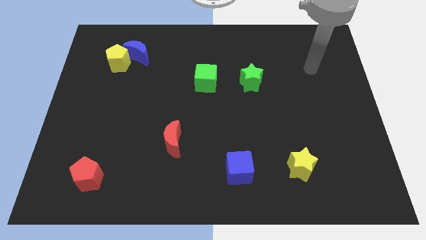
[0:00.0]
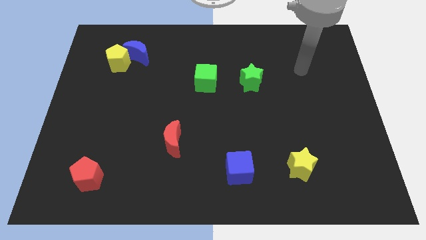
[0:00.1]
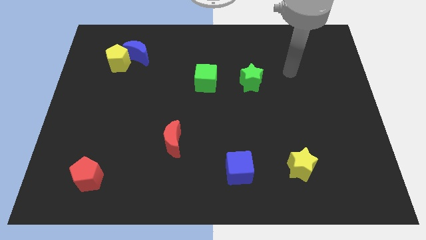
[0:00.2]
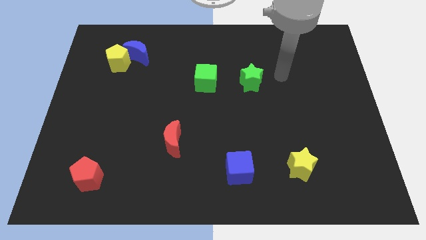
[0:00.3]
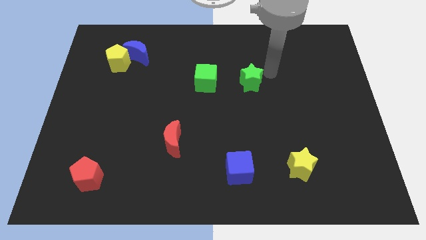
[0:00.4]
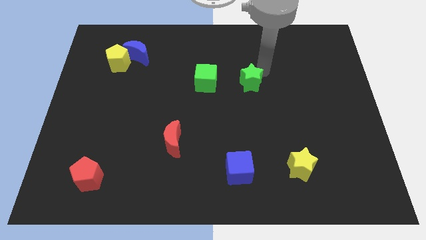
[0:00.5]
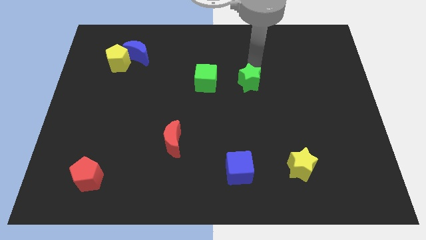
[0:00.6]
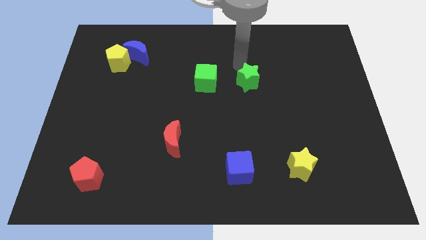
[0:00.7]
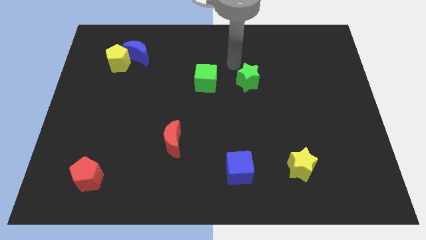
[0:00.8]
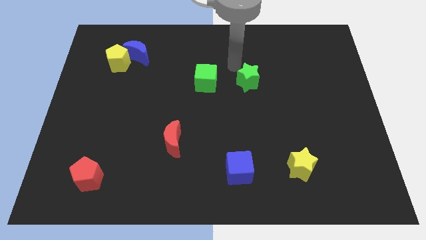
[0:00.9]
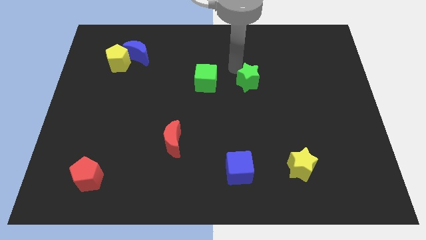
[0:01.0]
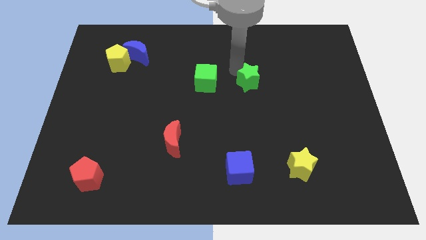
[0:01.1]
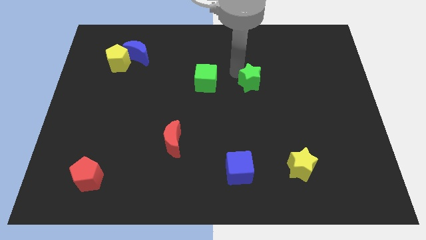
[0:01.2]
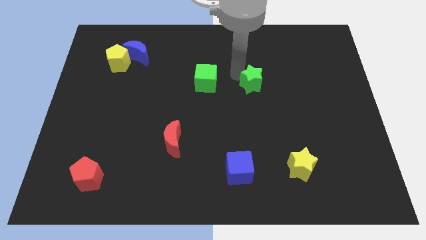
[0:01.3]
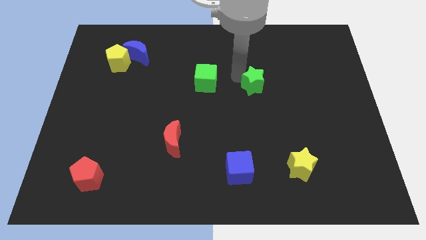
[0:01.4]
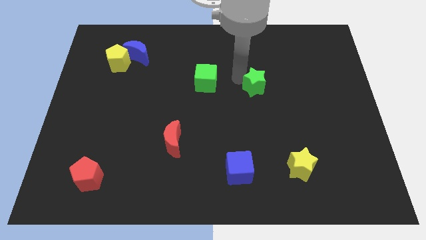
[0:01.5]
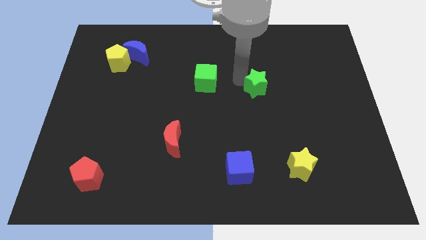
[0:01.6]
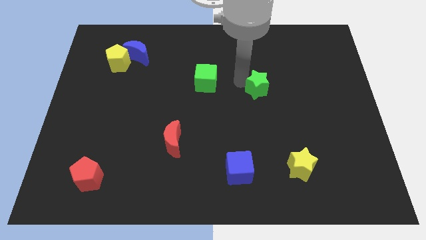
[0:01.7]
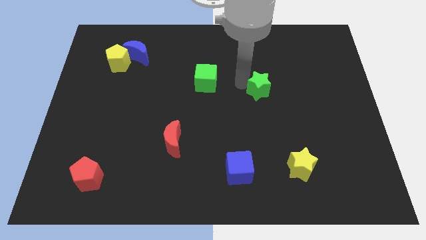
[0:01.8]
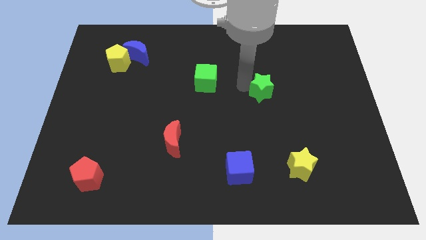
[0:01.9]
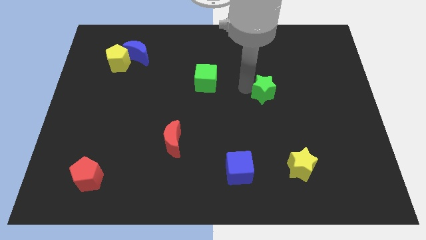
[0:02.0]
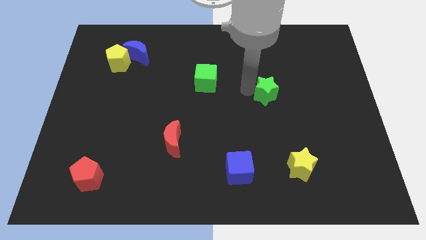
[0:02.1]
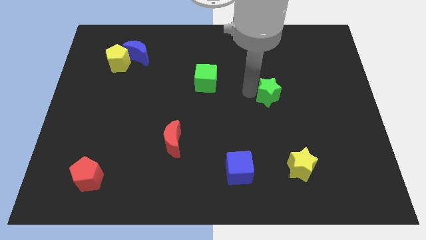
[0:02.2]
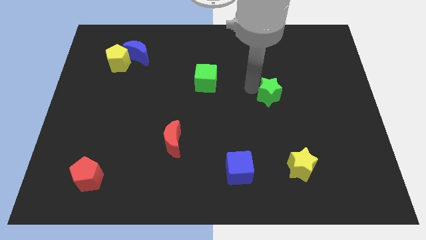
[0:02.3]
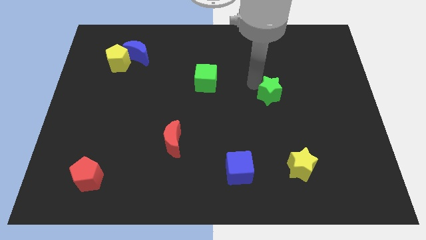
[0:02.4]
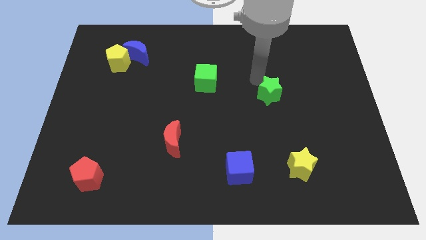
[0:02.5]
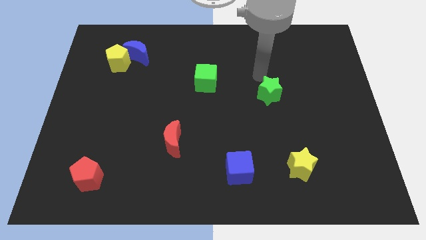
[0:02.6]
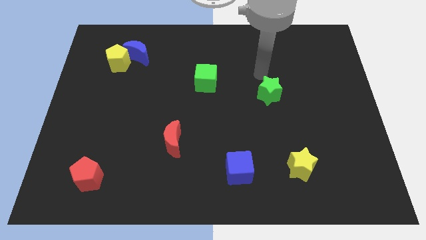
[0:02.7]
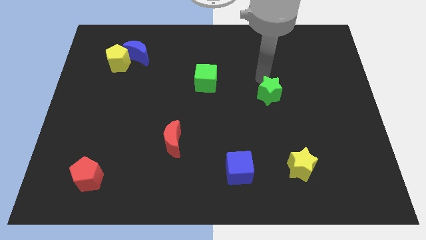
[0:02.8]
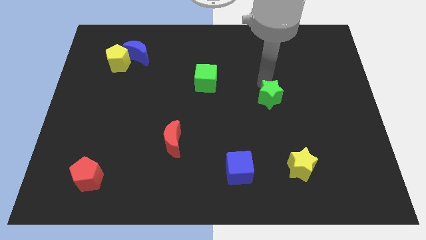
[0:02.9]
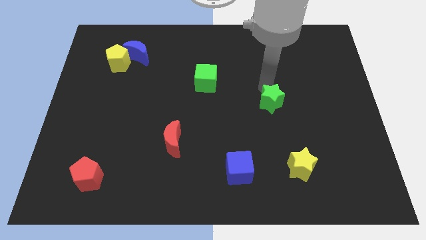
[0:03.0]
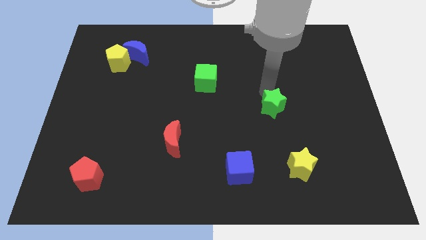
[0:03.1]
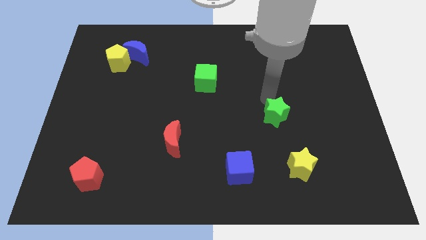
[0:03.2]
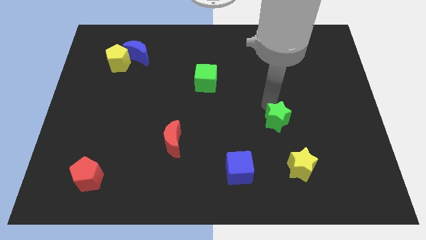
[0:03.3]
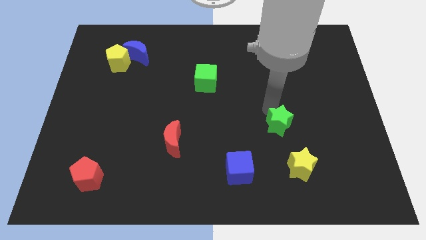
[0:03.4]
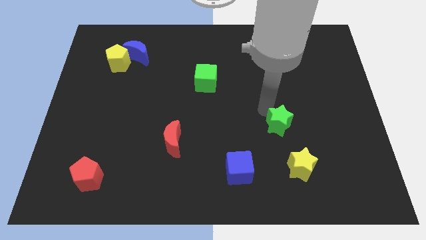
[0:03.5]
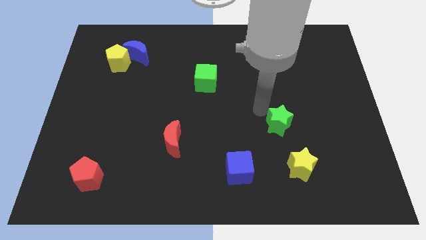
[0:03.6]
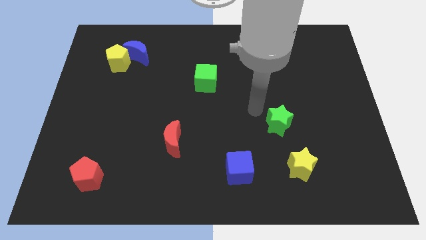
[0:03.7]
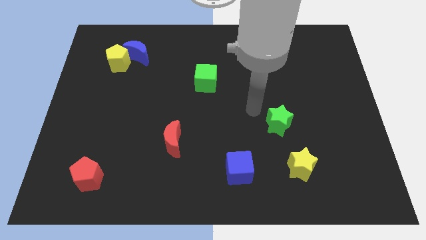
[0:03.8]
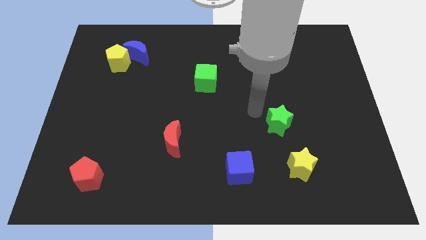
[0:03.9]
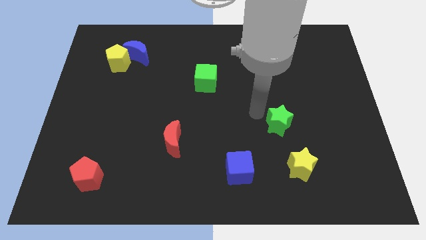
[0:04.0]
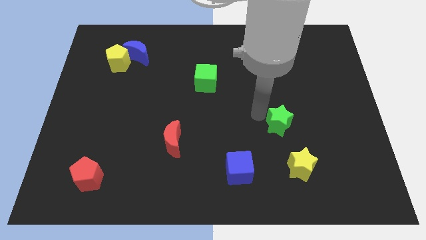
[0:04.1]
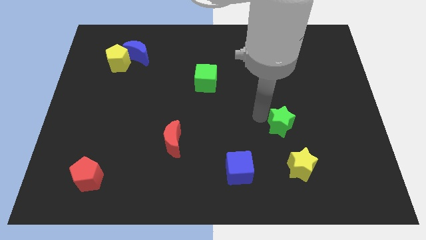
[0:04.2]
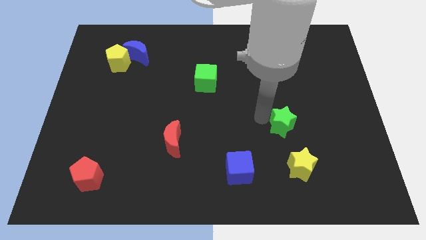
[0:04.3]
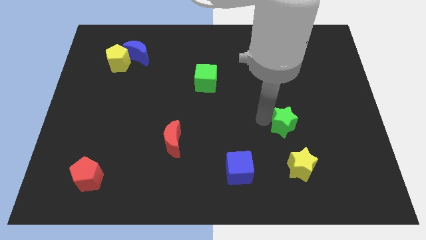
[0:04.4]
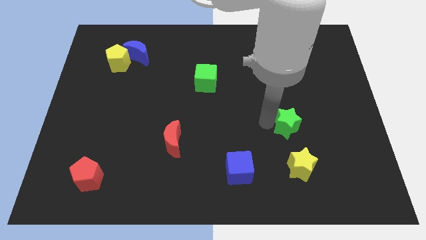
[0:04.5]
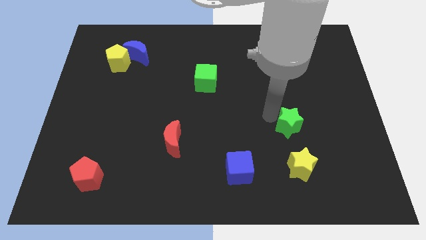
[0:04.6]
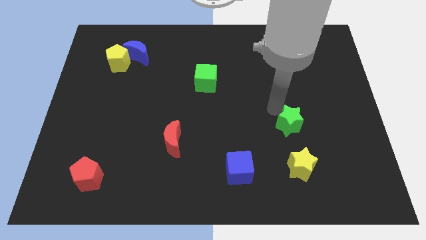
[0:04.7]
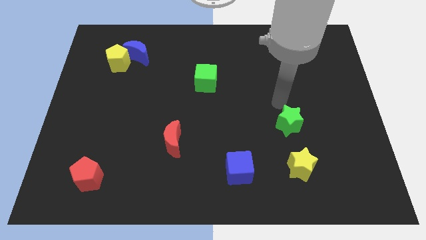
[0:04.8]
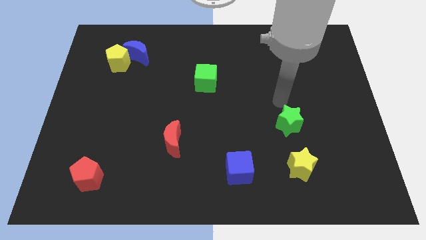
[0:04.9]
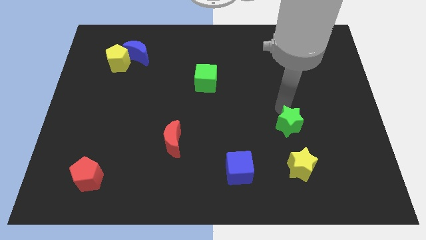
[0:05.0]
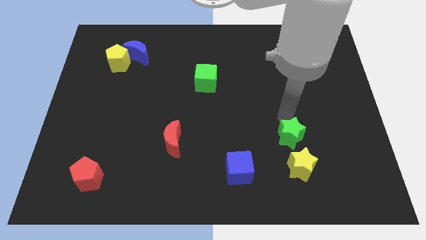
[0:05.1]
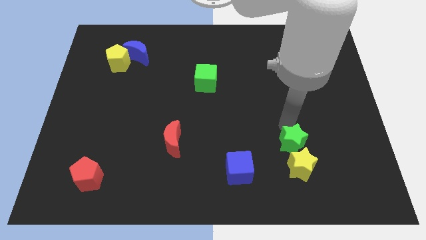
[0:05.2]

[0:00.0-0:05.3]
move the green star towards the yellow star

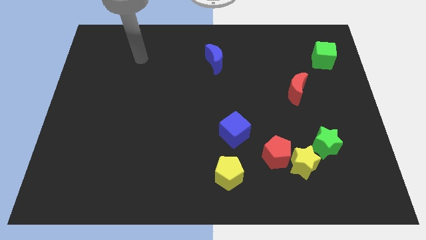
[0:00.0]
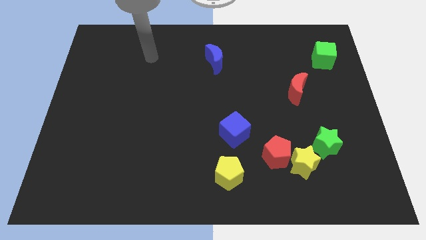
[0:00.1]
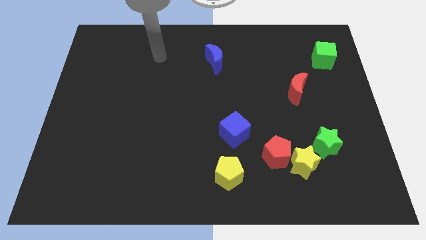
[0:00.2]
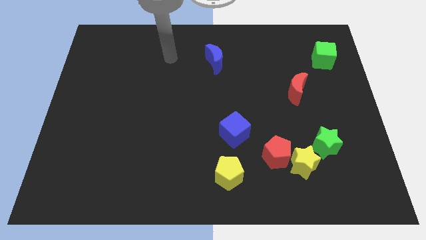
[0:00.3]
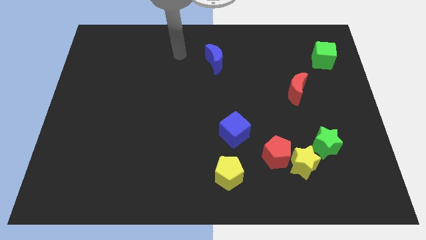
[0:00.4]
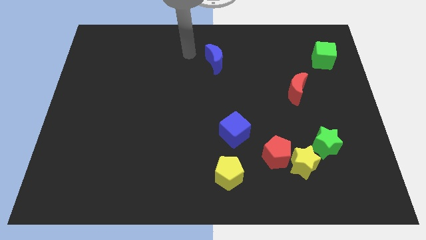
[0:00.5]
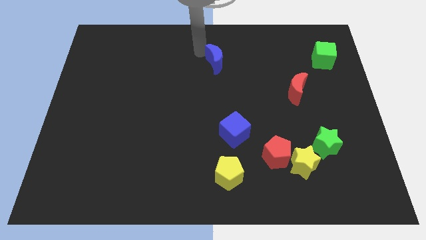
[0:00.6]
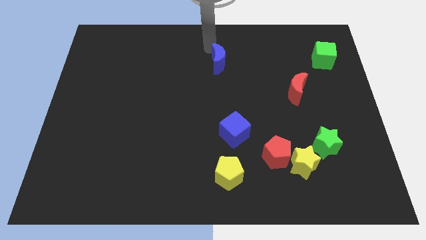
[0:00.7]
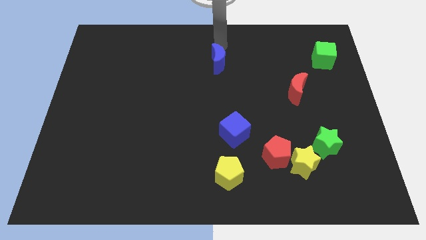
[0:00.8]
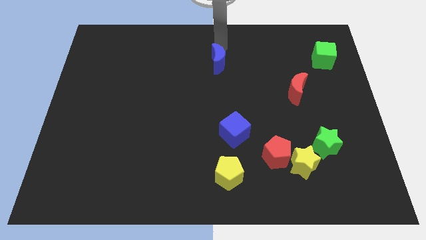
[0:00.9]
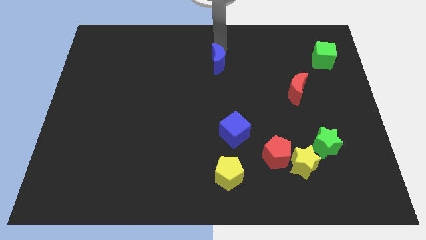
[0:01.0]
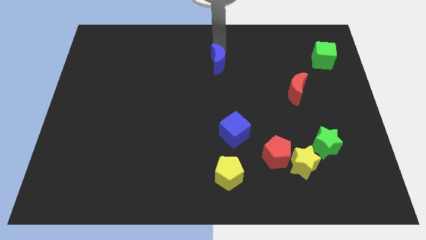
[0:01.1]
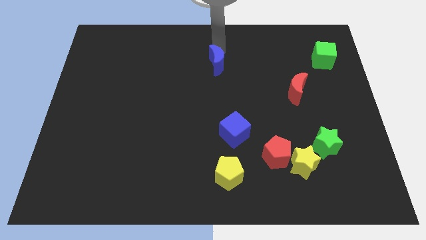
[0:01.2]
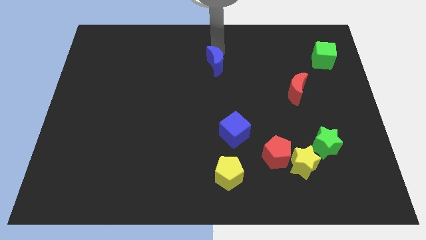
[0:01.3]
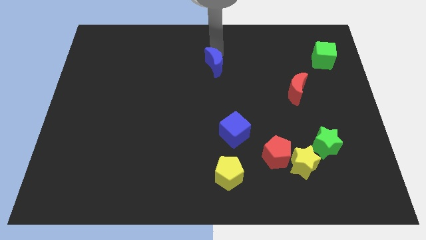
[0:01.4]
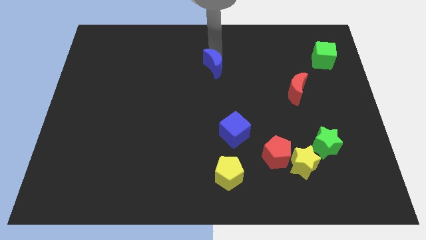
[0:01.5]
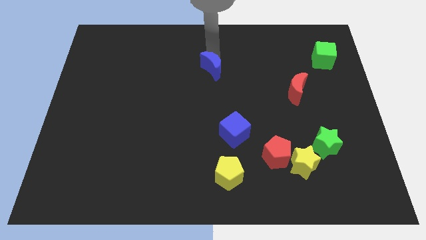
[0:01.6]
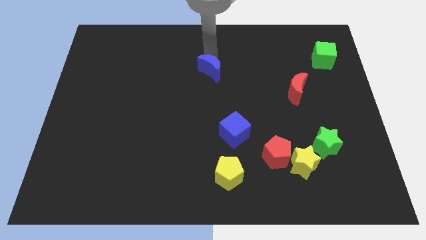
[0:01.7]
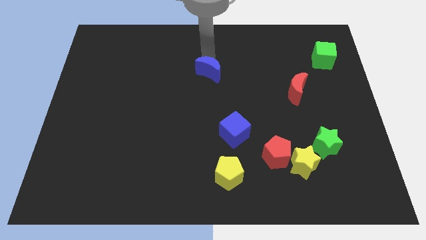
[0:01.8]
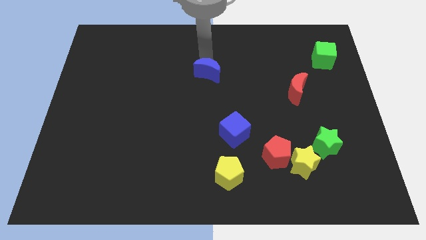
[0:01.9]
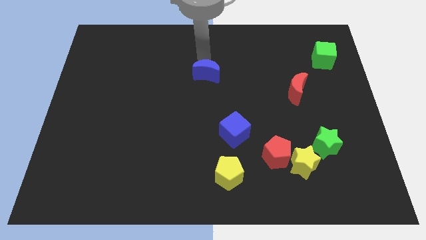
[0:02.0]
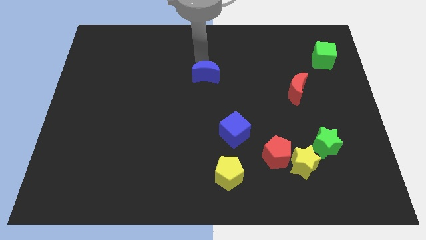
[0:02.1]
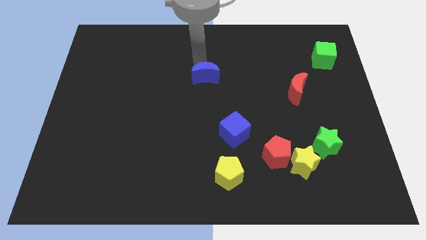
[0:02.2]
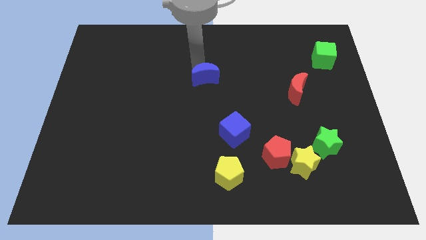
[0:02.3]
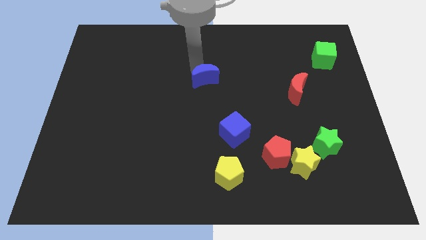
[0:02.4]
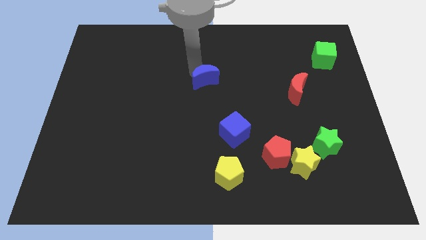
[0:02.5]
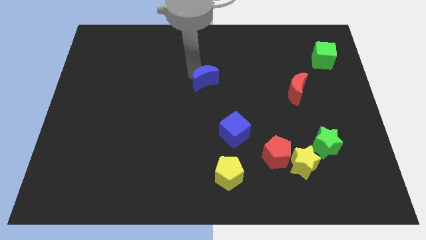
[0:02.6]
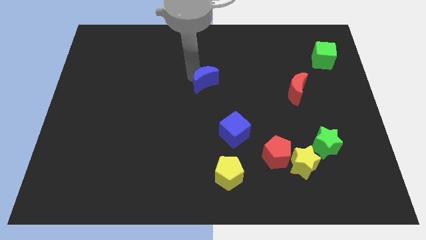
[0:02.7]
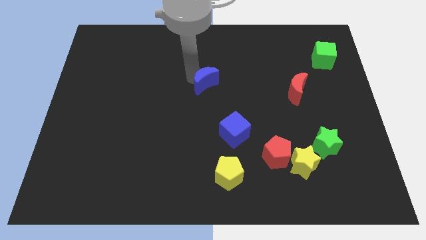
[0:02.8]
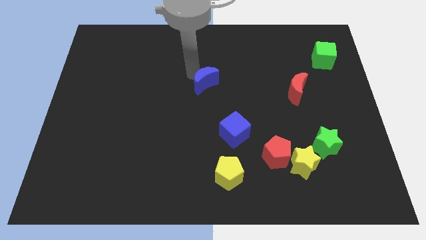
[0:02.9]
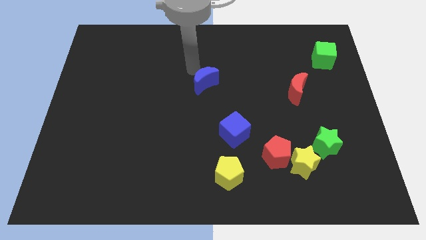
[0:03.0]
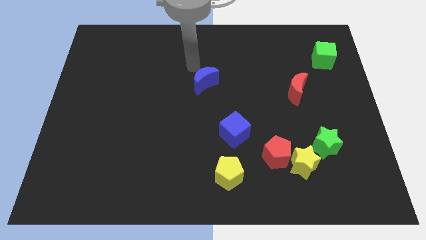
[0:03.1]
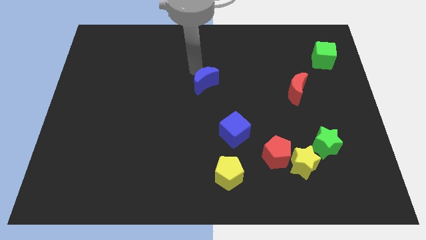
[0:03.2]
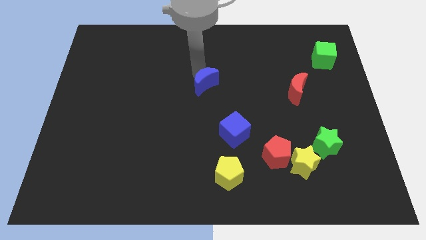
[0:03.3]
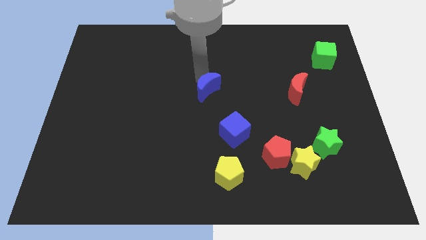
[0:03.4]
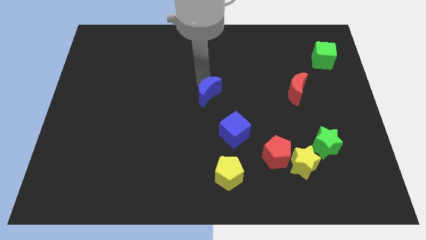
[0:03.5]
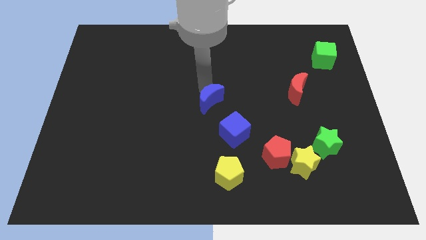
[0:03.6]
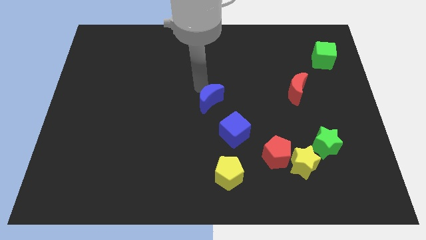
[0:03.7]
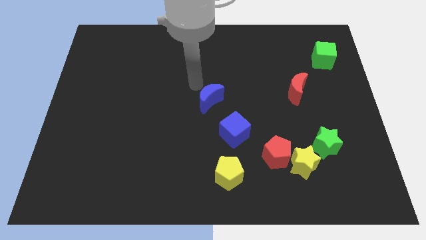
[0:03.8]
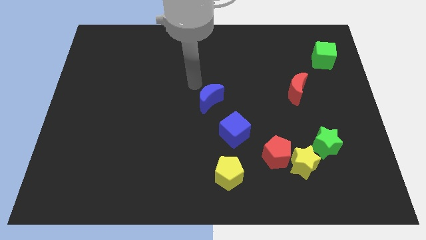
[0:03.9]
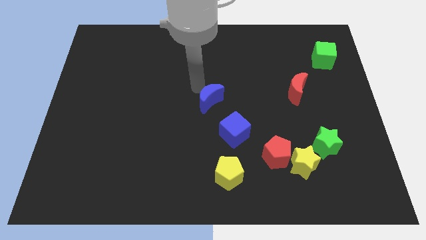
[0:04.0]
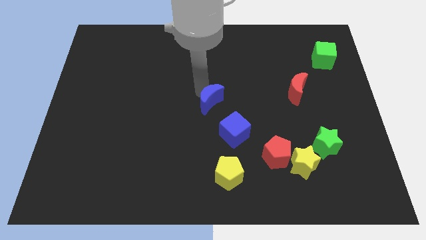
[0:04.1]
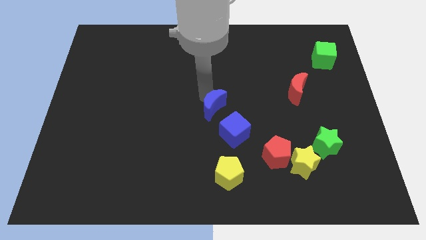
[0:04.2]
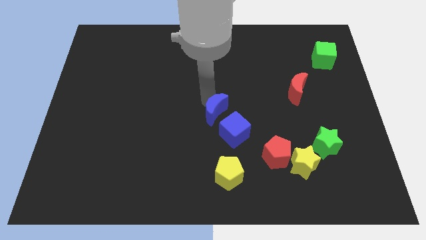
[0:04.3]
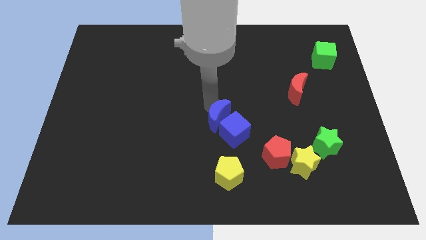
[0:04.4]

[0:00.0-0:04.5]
push the blue moon close to the blue cube
